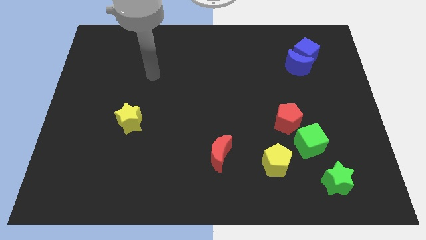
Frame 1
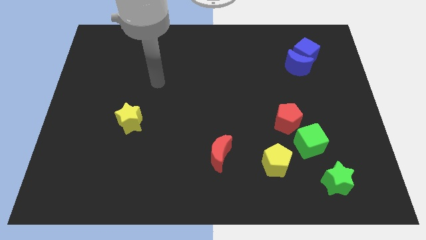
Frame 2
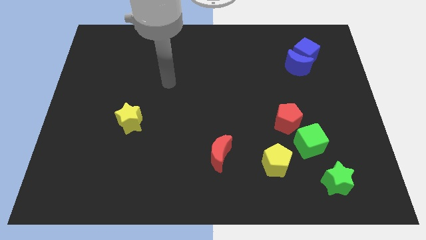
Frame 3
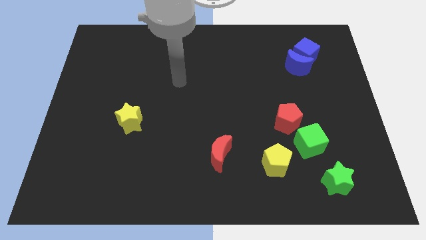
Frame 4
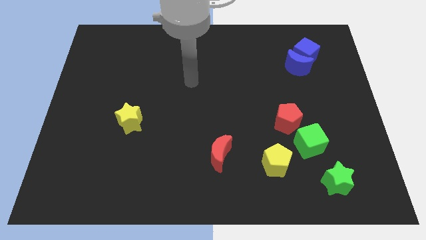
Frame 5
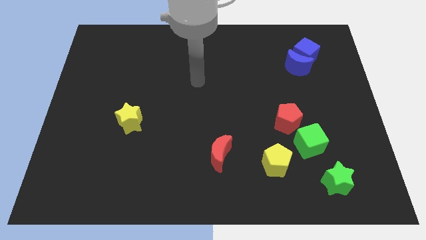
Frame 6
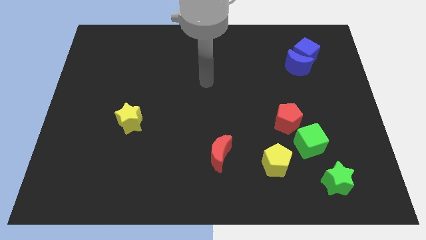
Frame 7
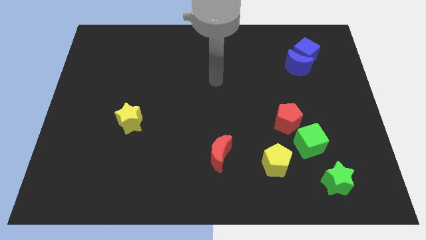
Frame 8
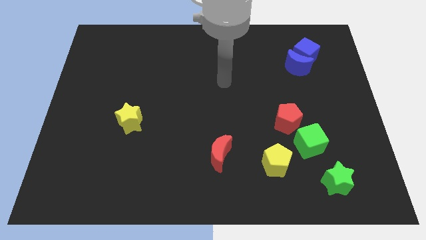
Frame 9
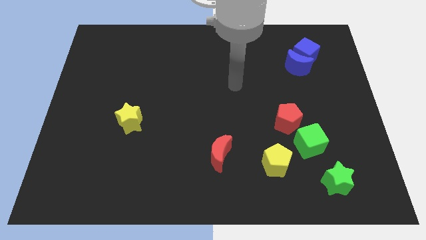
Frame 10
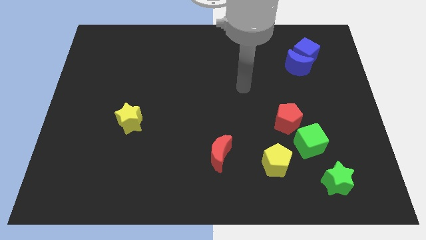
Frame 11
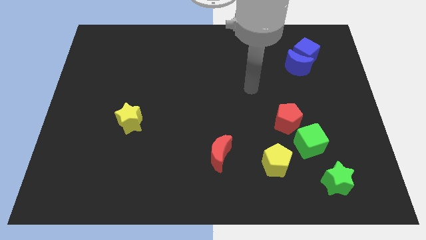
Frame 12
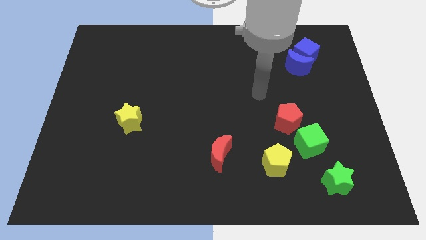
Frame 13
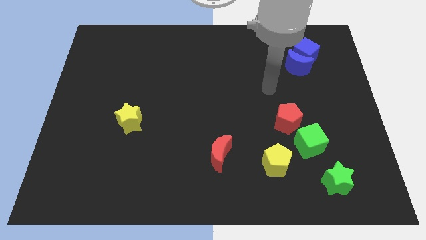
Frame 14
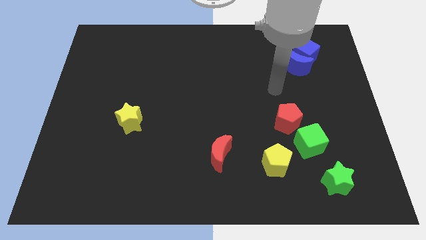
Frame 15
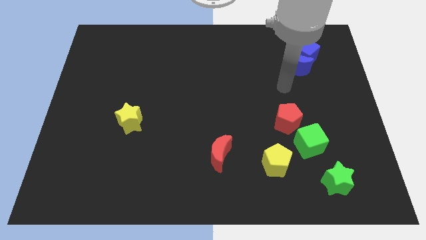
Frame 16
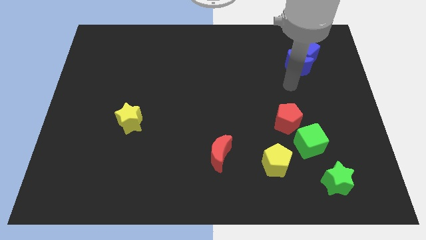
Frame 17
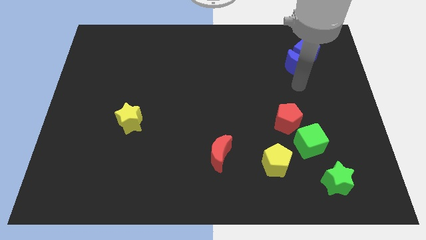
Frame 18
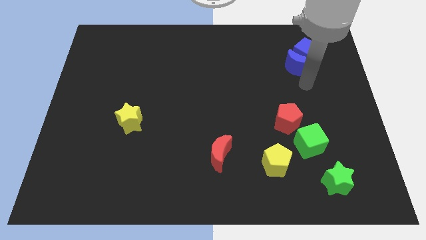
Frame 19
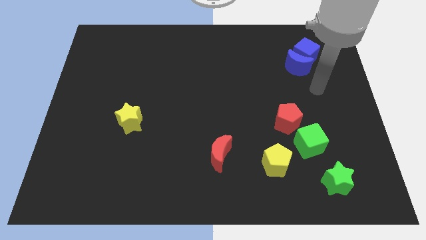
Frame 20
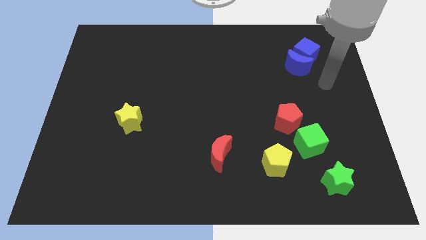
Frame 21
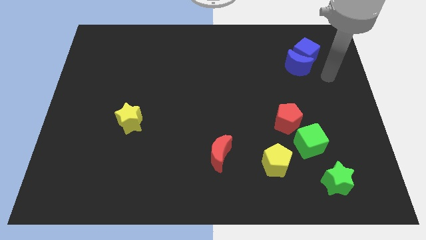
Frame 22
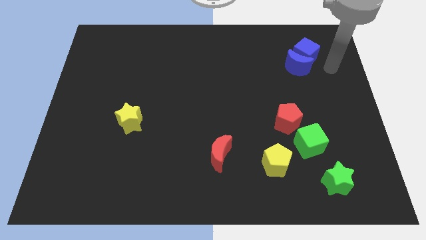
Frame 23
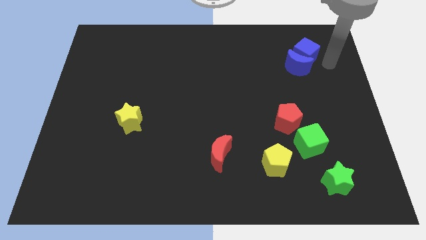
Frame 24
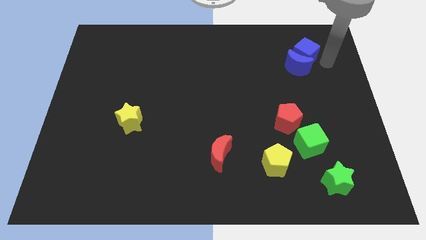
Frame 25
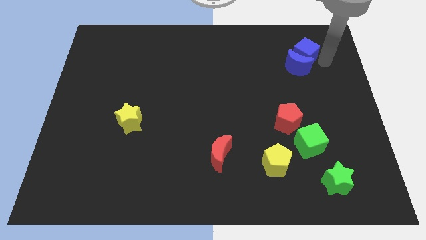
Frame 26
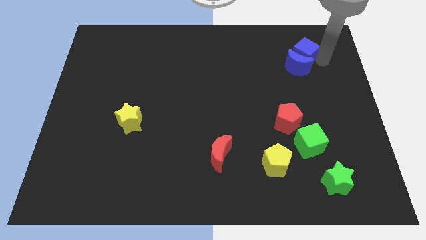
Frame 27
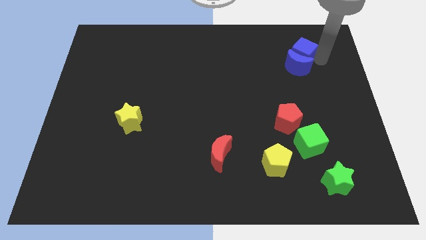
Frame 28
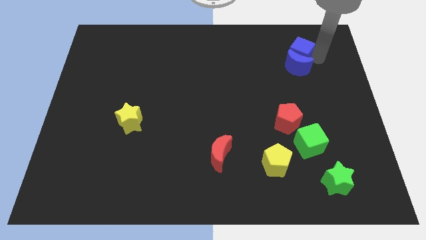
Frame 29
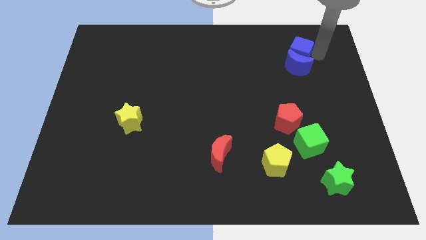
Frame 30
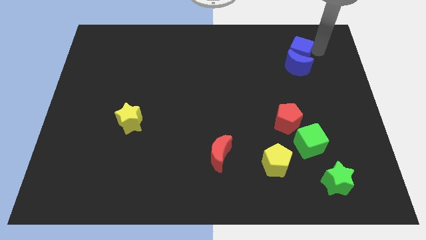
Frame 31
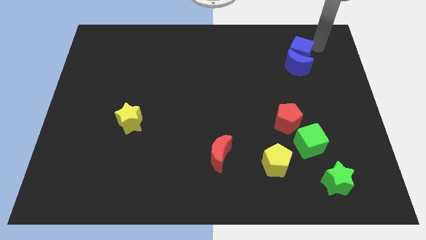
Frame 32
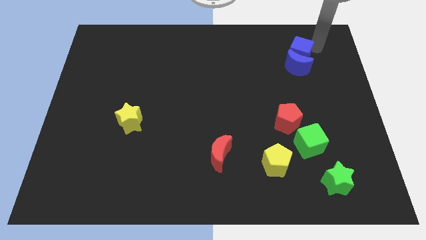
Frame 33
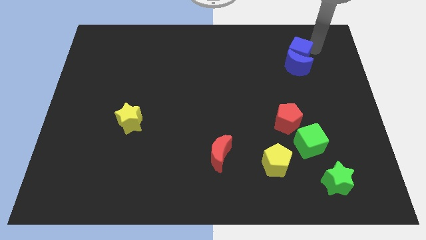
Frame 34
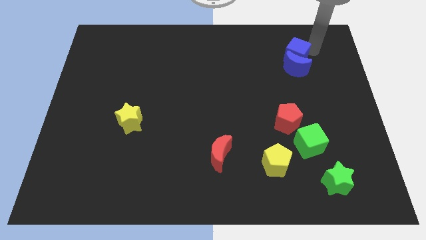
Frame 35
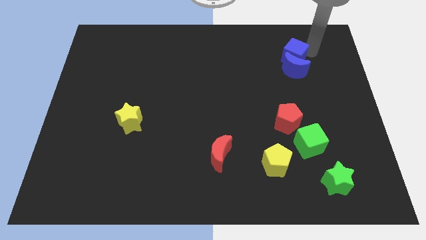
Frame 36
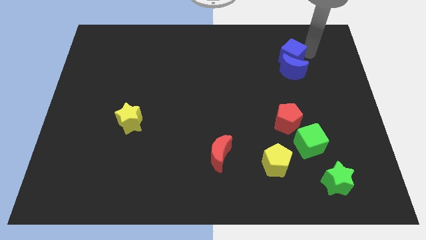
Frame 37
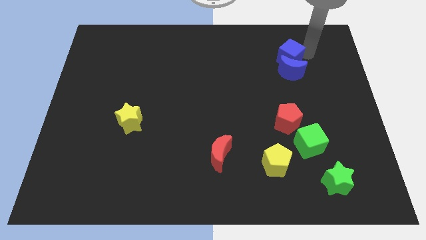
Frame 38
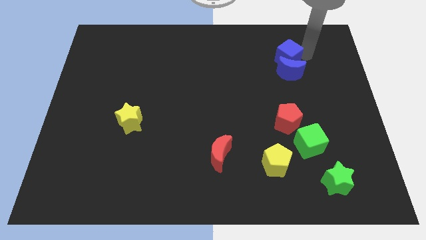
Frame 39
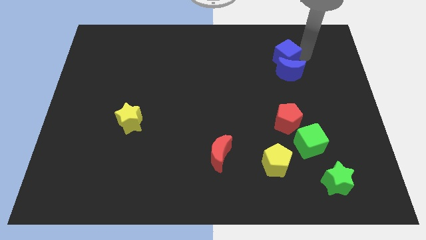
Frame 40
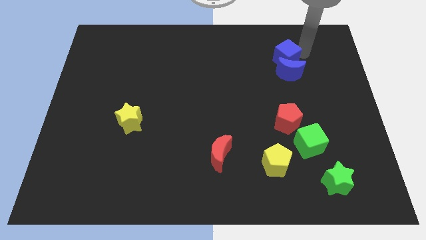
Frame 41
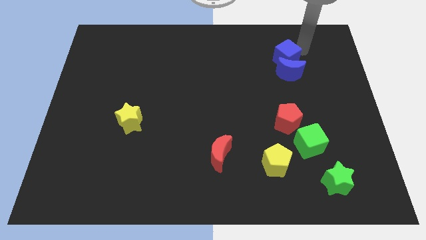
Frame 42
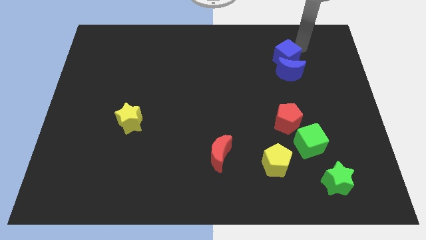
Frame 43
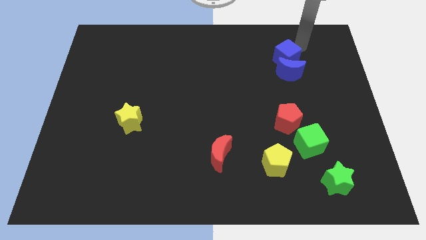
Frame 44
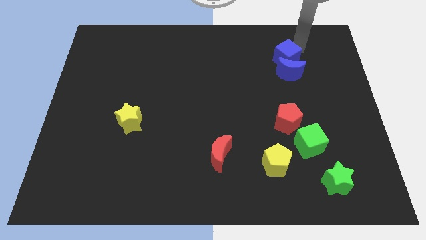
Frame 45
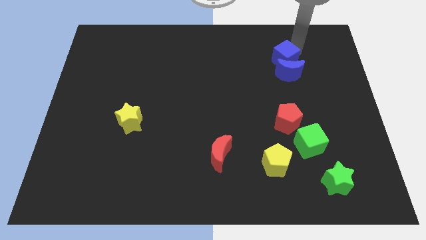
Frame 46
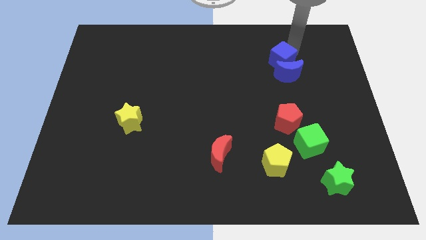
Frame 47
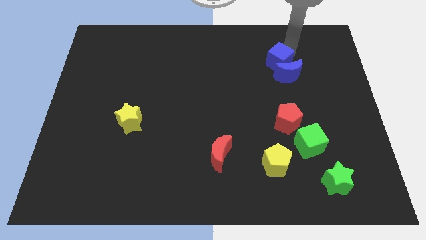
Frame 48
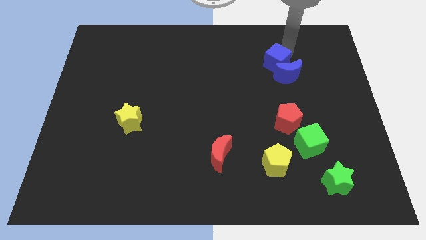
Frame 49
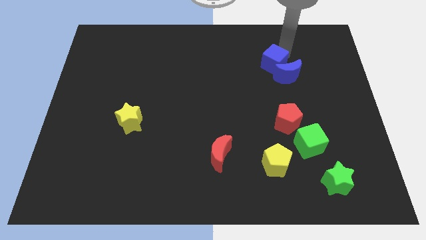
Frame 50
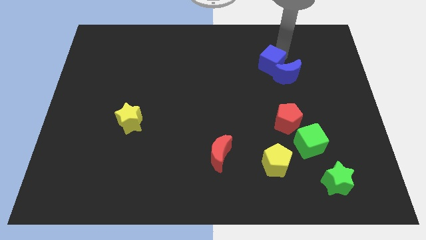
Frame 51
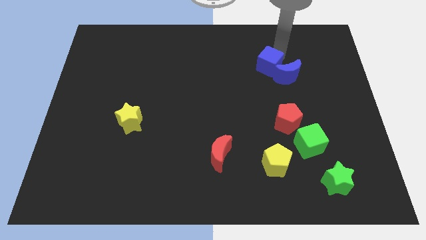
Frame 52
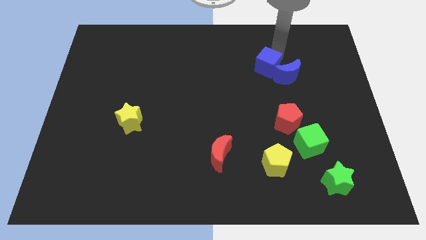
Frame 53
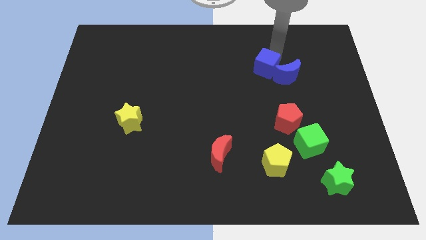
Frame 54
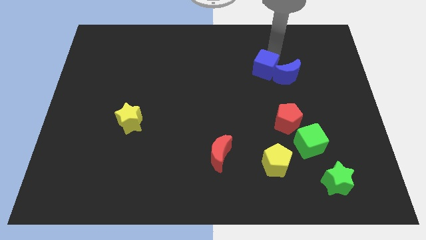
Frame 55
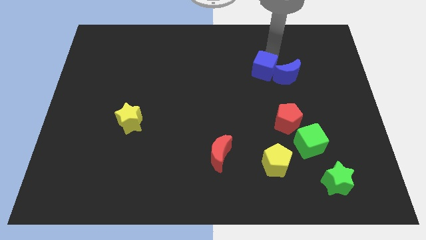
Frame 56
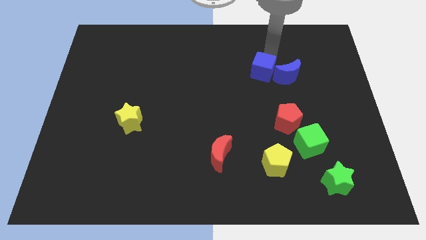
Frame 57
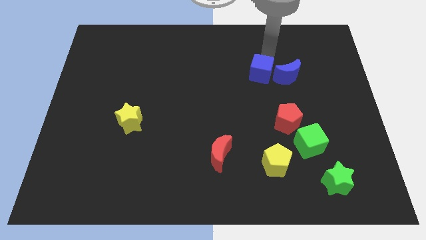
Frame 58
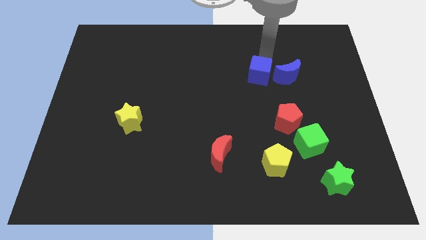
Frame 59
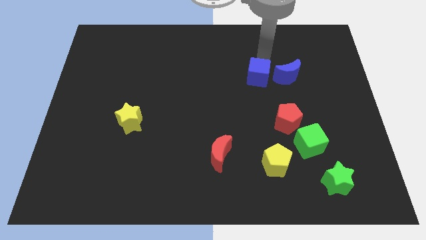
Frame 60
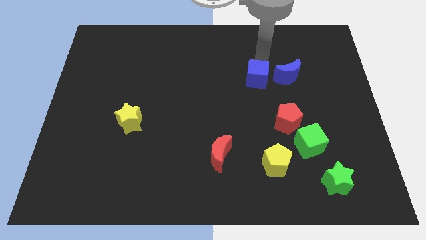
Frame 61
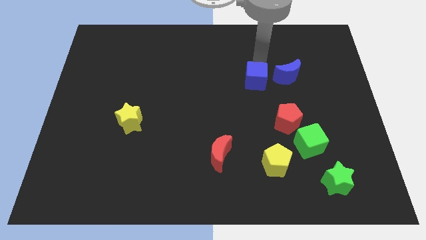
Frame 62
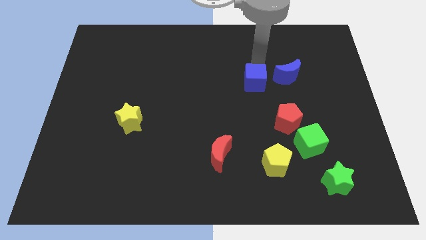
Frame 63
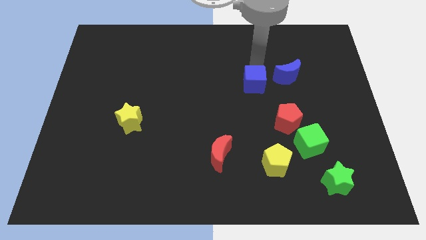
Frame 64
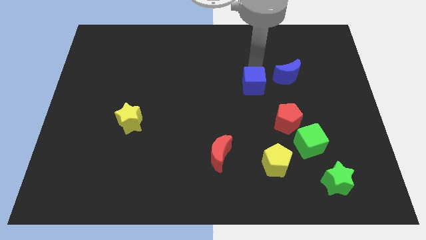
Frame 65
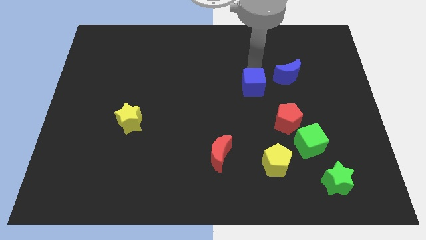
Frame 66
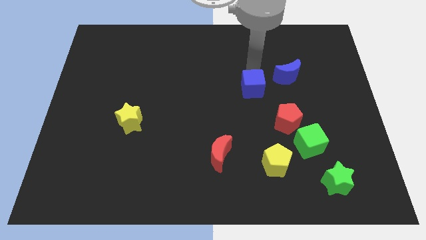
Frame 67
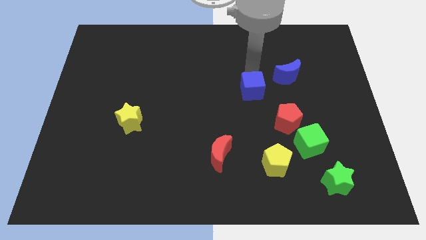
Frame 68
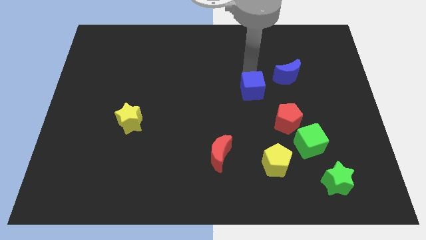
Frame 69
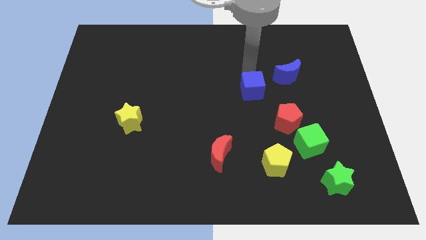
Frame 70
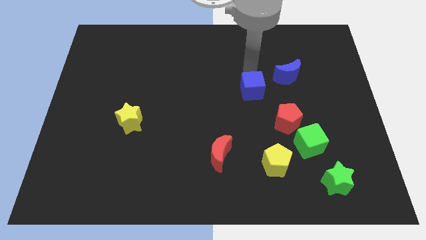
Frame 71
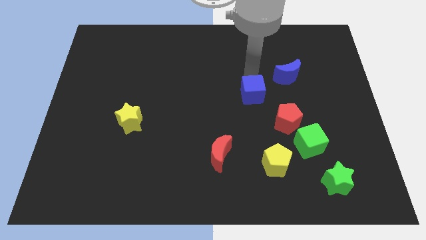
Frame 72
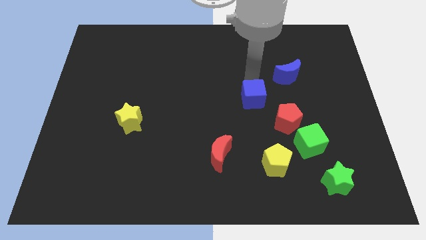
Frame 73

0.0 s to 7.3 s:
slide the blue cube diagonally downwards and to the left

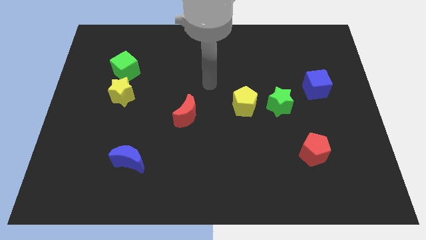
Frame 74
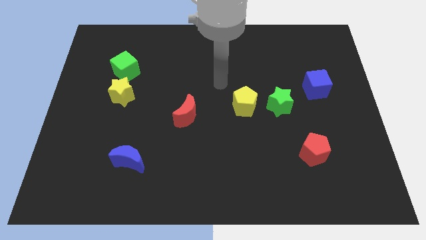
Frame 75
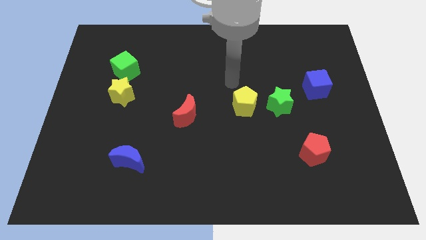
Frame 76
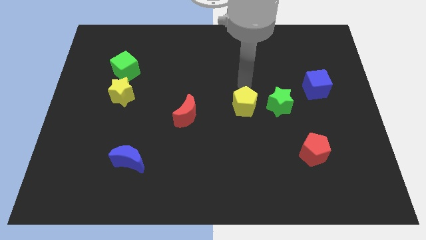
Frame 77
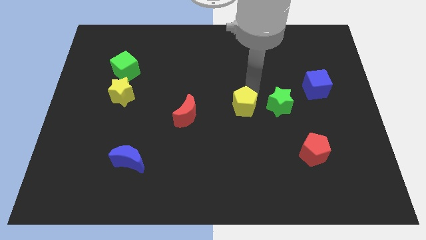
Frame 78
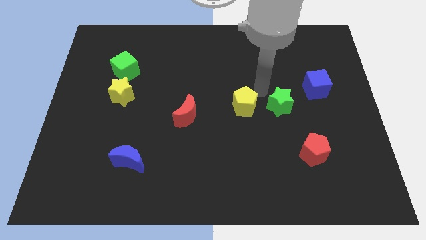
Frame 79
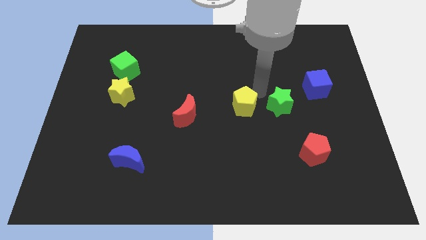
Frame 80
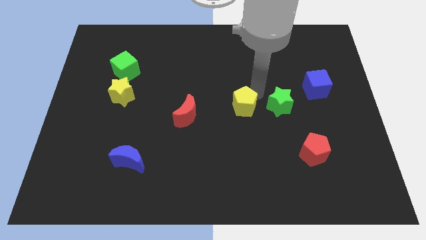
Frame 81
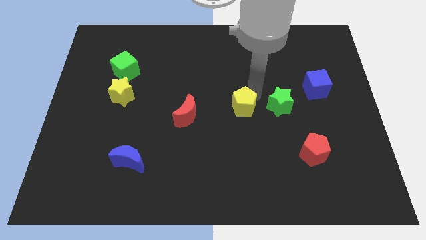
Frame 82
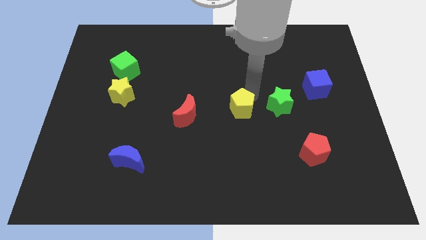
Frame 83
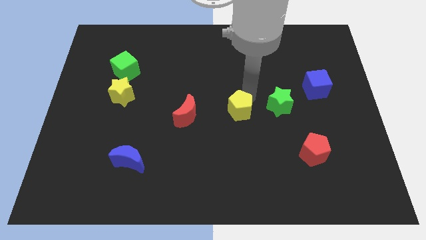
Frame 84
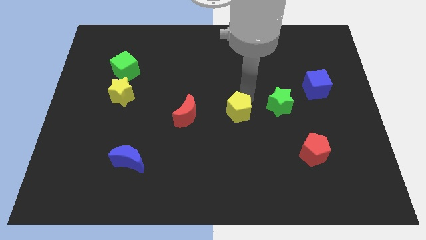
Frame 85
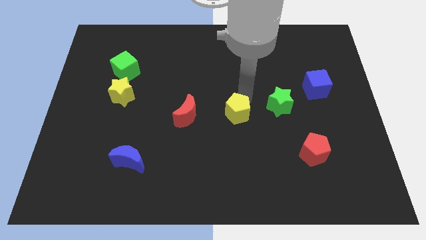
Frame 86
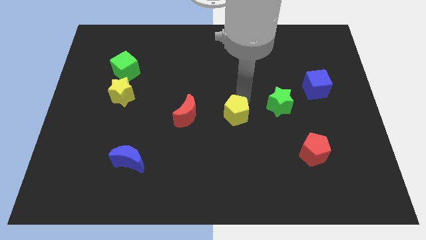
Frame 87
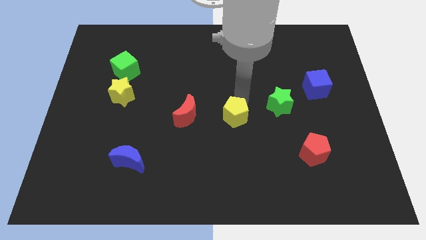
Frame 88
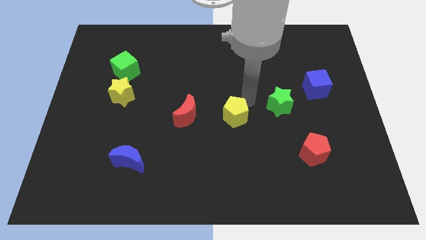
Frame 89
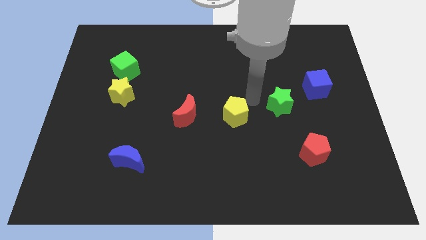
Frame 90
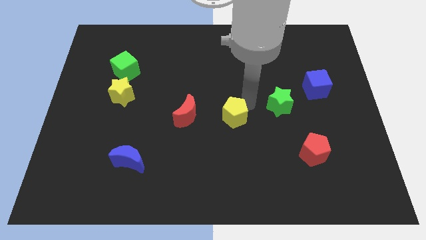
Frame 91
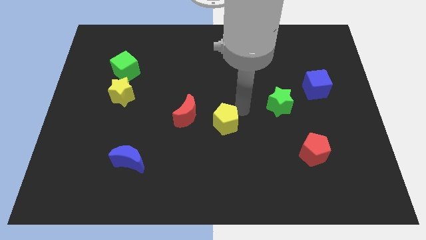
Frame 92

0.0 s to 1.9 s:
push the yellow pentagon down and to the left diagonally a little
